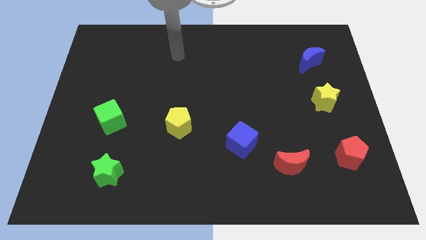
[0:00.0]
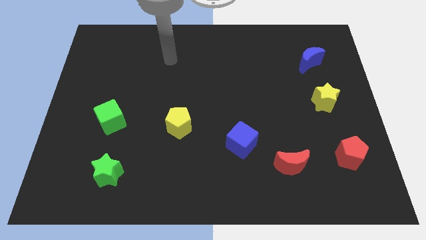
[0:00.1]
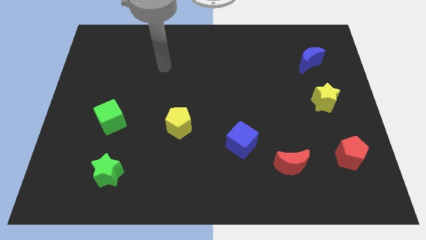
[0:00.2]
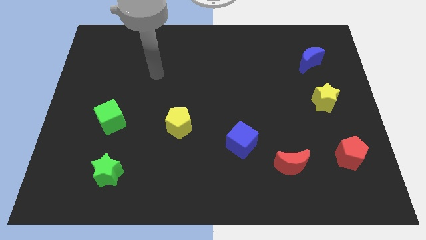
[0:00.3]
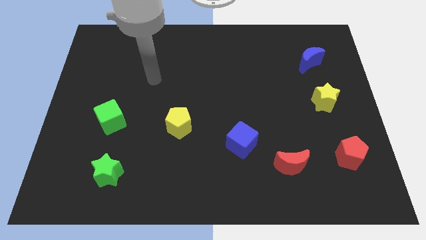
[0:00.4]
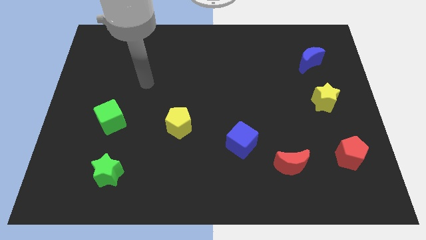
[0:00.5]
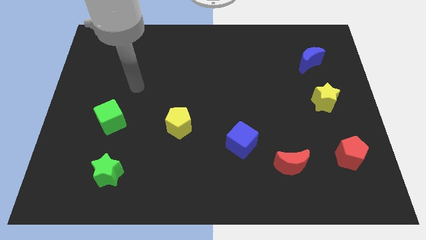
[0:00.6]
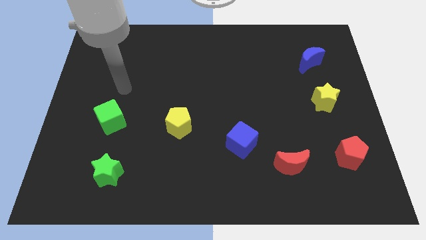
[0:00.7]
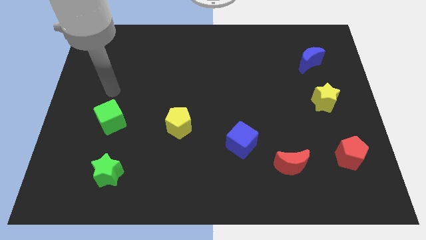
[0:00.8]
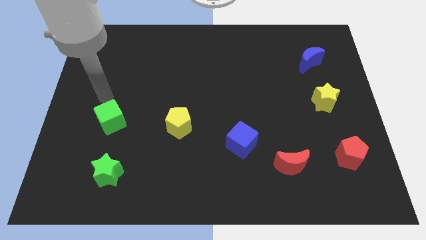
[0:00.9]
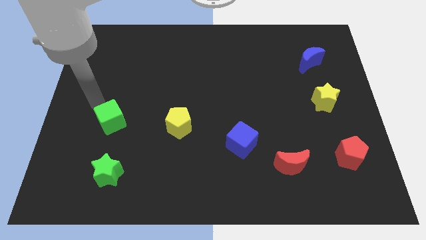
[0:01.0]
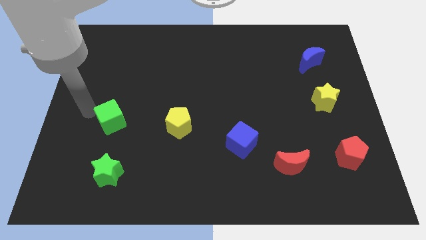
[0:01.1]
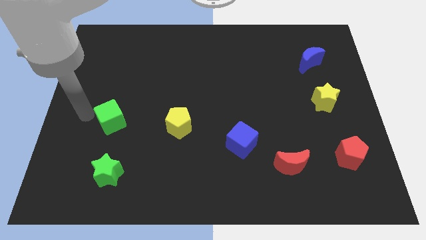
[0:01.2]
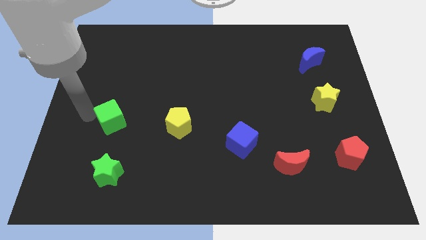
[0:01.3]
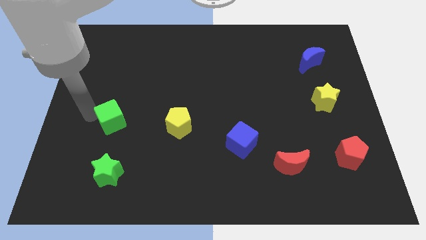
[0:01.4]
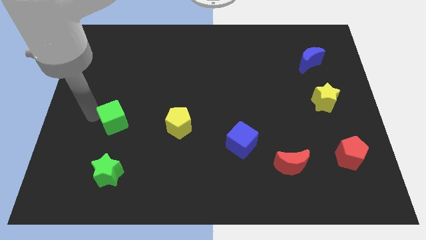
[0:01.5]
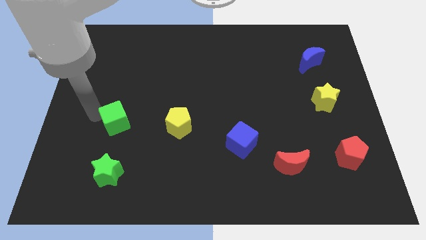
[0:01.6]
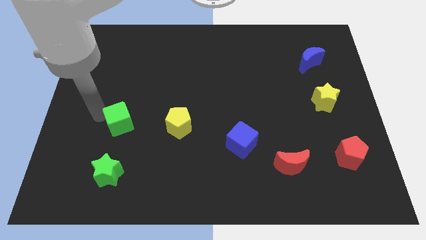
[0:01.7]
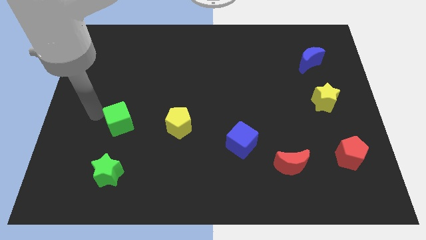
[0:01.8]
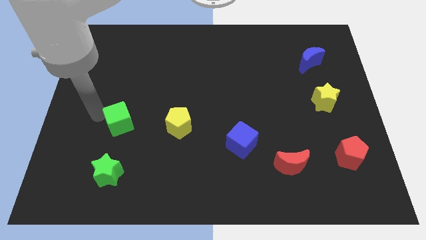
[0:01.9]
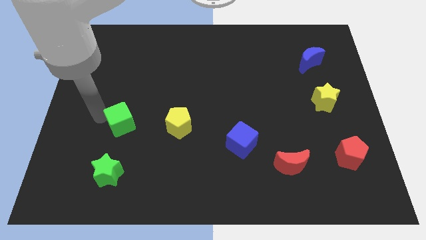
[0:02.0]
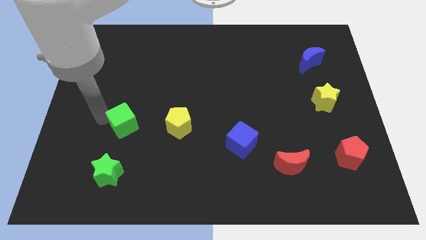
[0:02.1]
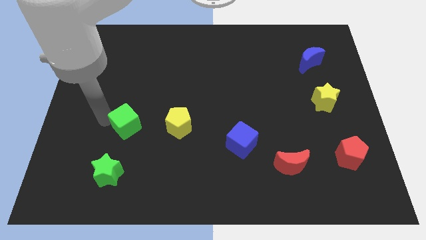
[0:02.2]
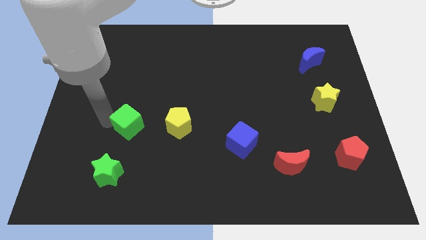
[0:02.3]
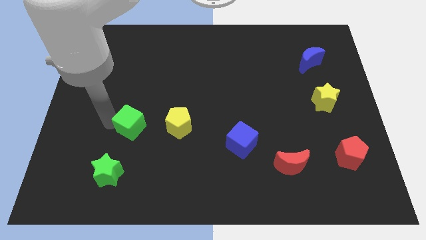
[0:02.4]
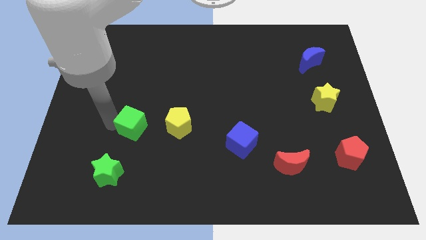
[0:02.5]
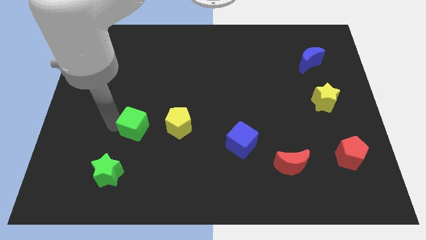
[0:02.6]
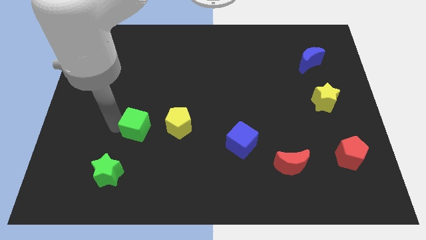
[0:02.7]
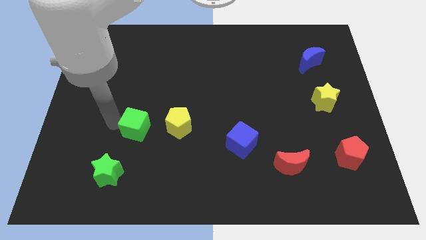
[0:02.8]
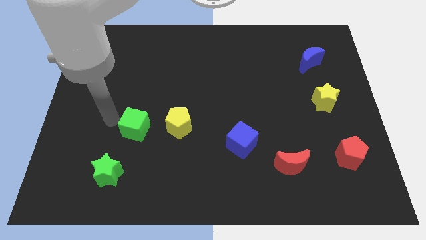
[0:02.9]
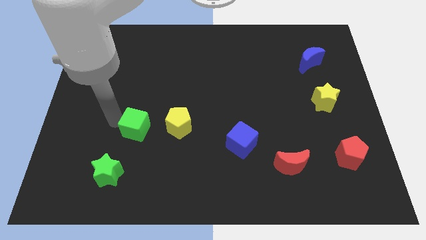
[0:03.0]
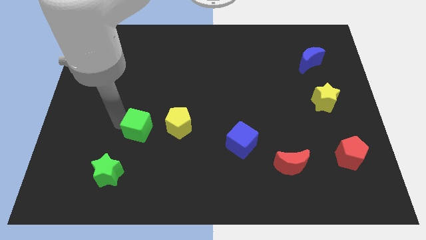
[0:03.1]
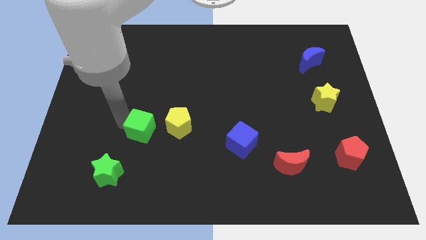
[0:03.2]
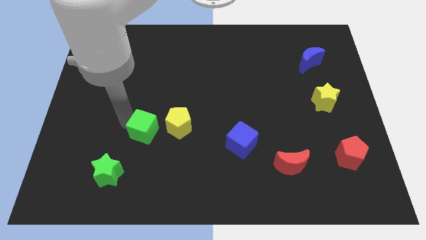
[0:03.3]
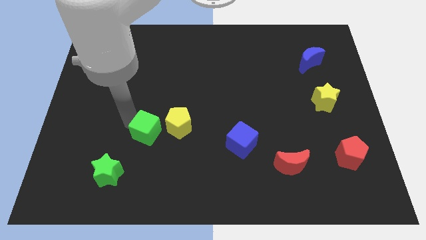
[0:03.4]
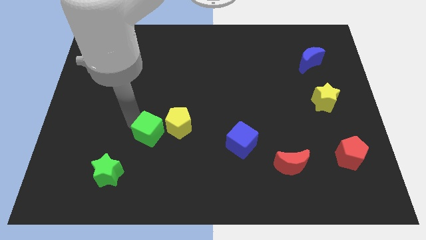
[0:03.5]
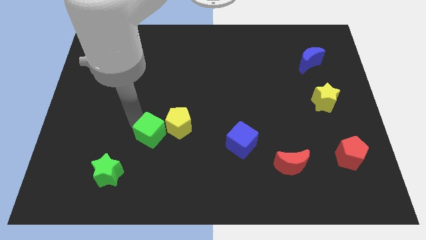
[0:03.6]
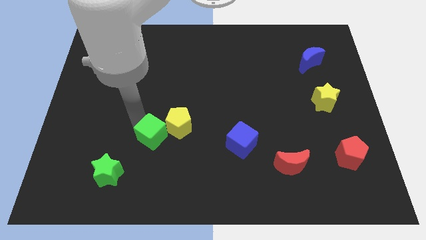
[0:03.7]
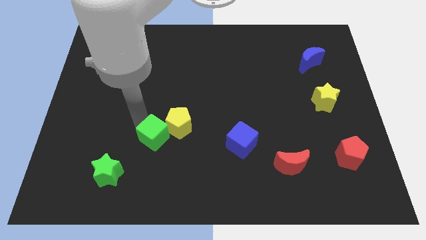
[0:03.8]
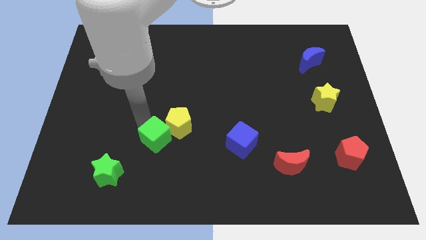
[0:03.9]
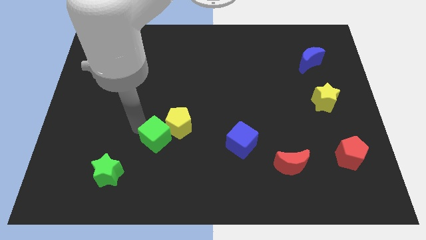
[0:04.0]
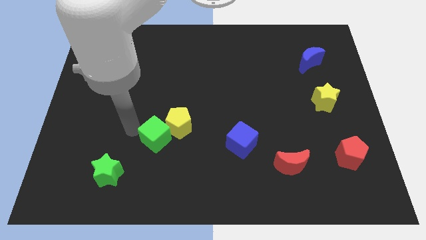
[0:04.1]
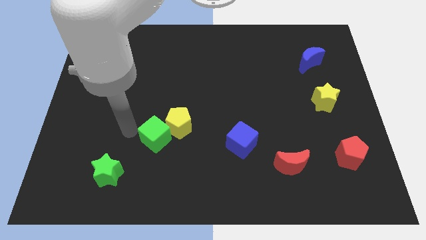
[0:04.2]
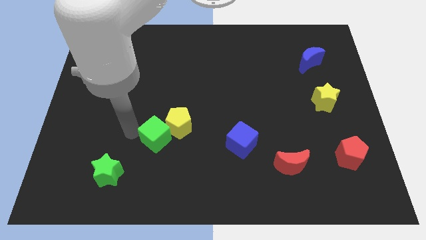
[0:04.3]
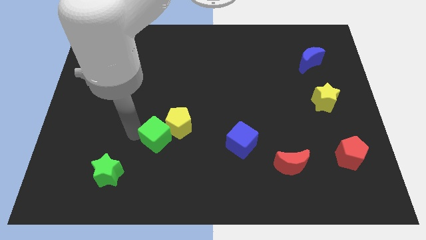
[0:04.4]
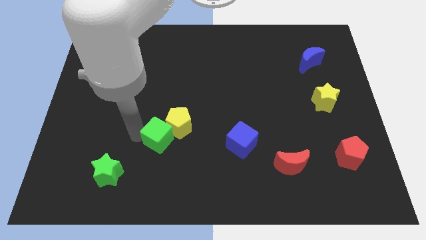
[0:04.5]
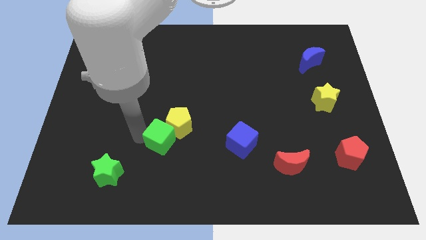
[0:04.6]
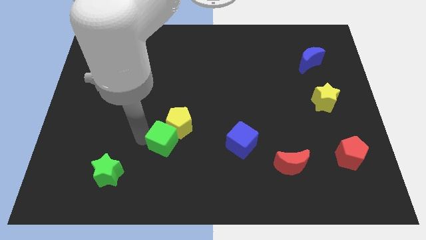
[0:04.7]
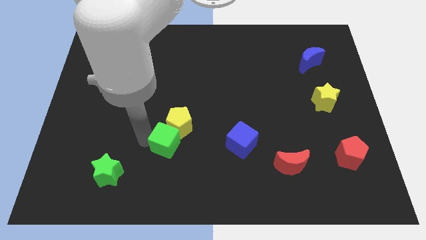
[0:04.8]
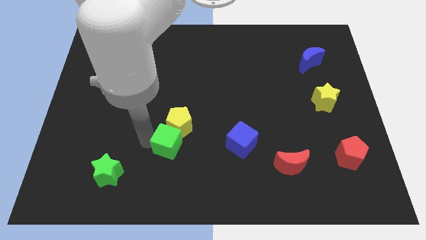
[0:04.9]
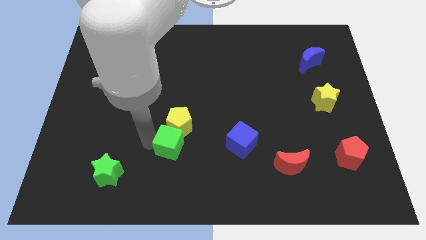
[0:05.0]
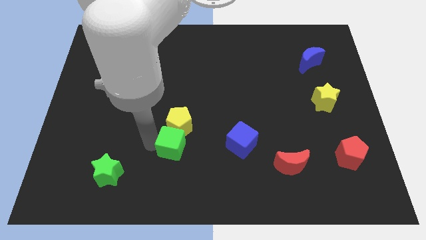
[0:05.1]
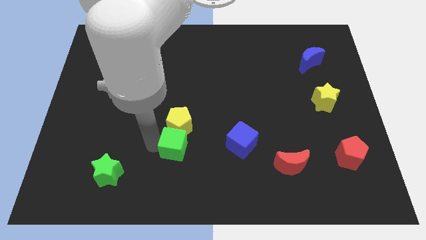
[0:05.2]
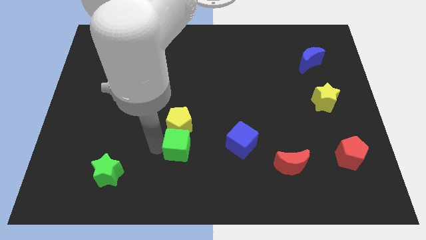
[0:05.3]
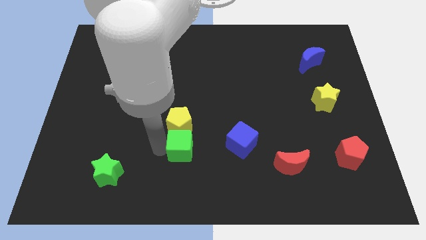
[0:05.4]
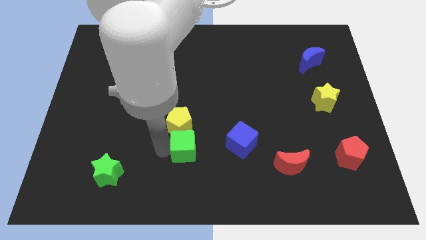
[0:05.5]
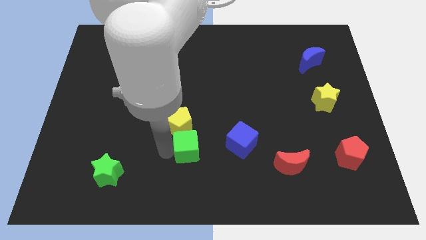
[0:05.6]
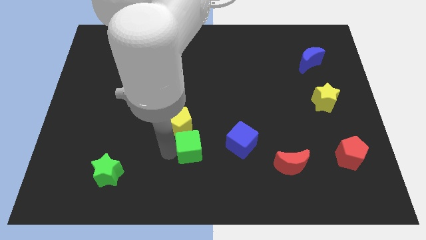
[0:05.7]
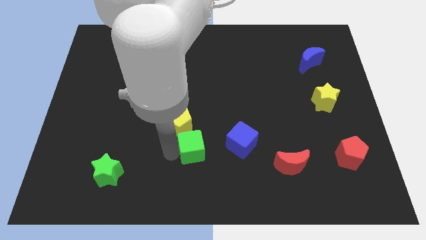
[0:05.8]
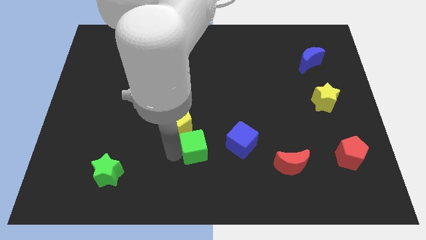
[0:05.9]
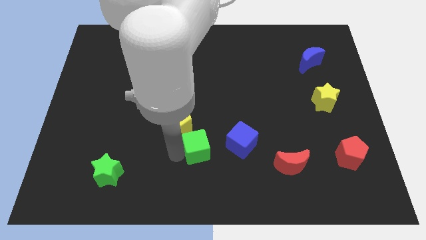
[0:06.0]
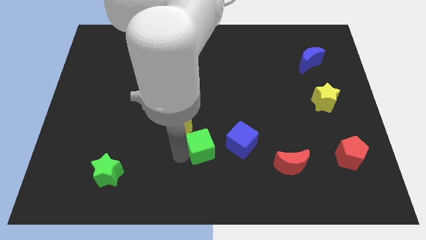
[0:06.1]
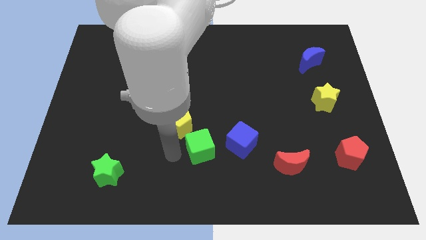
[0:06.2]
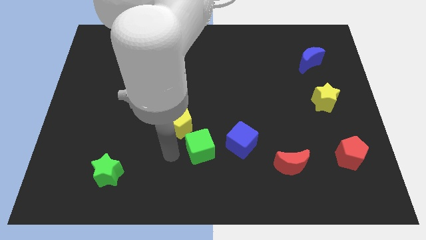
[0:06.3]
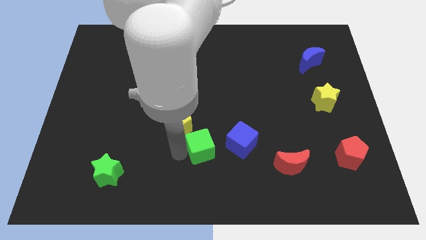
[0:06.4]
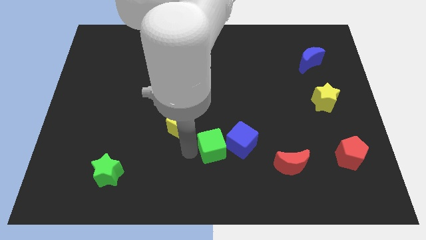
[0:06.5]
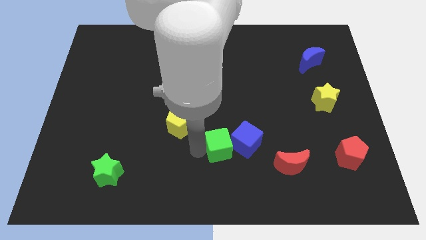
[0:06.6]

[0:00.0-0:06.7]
push the green cube towards the blue cube

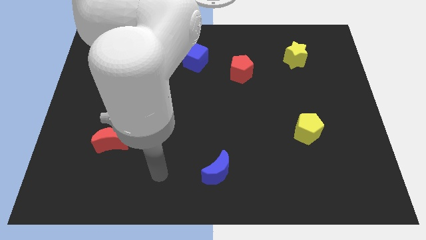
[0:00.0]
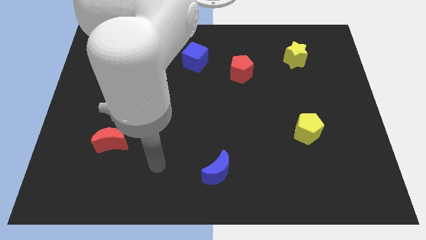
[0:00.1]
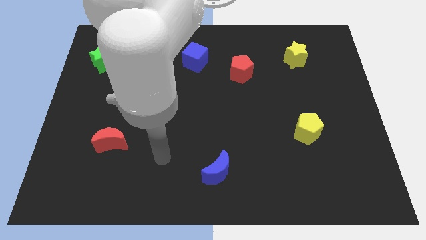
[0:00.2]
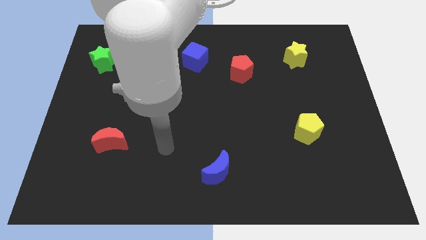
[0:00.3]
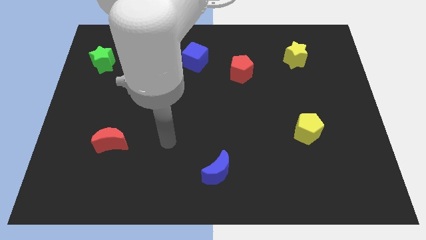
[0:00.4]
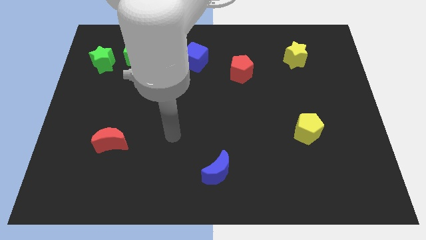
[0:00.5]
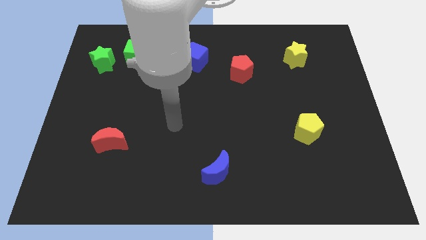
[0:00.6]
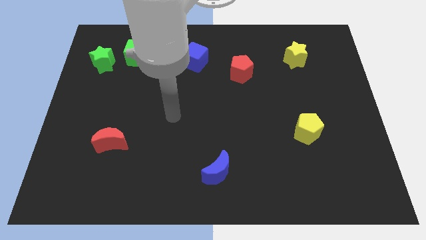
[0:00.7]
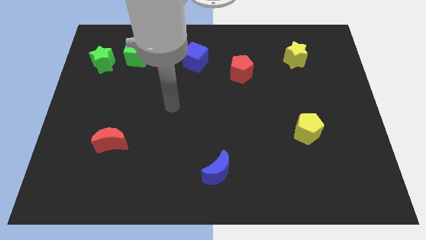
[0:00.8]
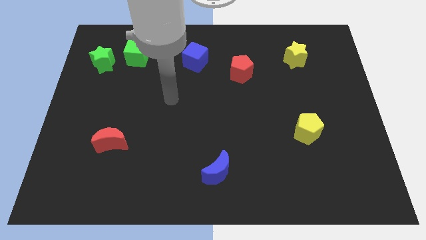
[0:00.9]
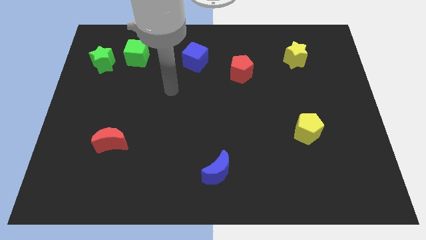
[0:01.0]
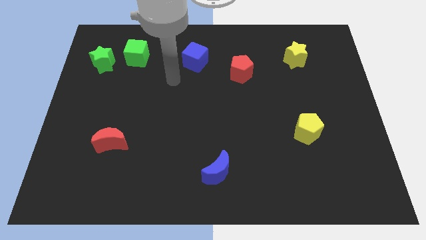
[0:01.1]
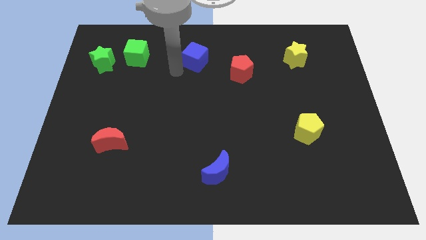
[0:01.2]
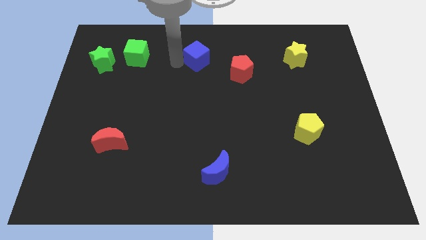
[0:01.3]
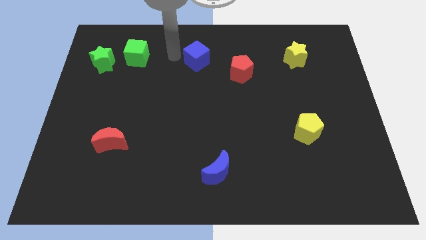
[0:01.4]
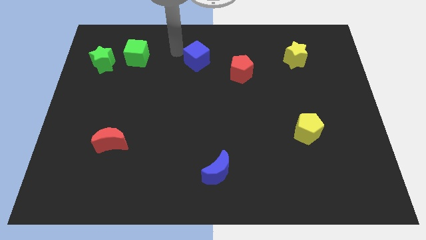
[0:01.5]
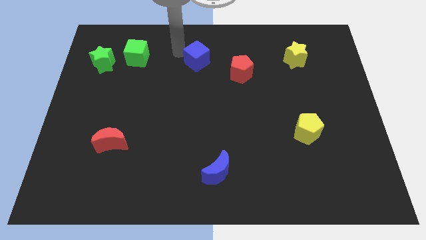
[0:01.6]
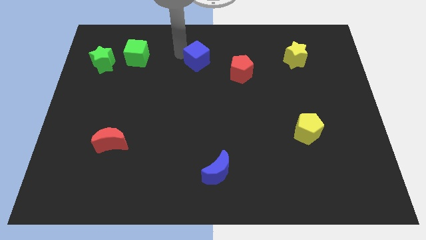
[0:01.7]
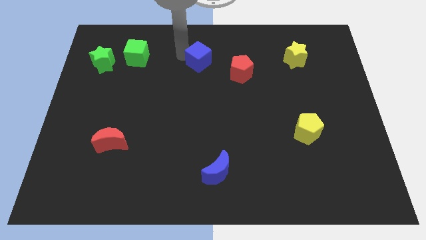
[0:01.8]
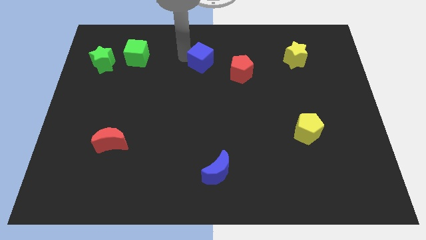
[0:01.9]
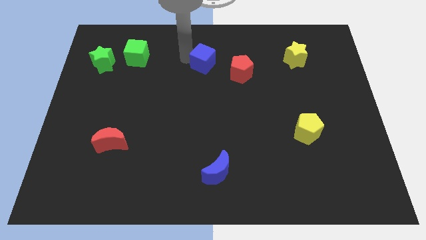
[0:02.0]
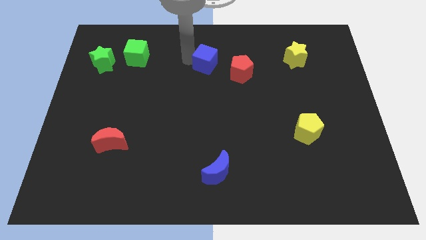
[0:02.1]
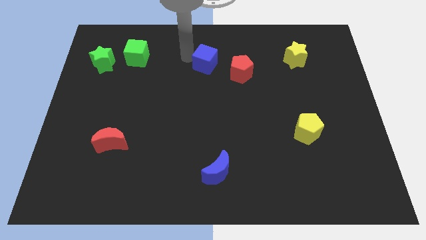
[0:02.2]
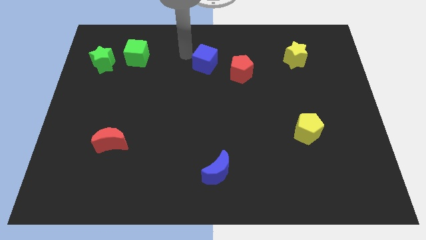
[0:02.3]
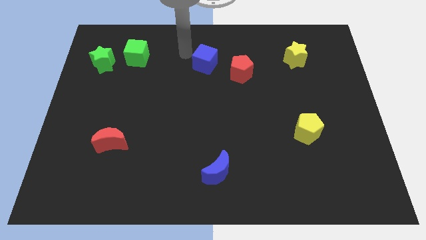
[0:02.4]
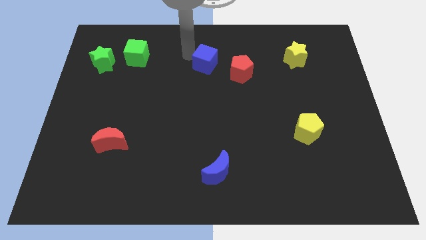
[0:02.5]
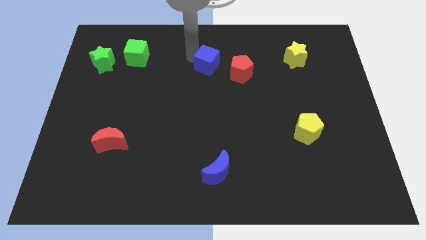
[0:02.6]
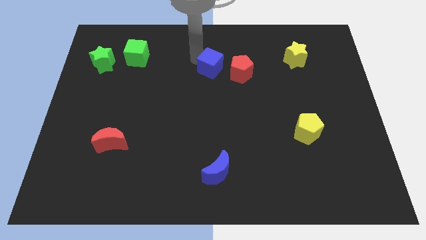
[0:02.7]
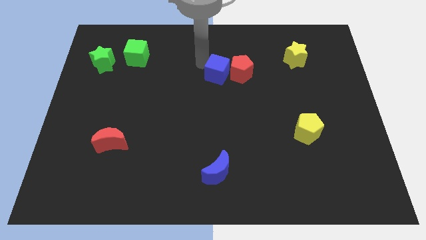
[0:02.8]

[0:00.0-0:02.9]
push the blue cube close to the red pentagon
